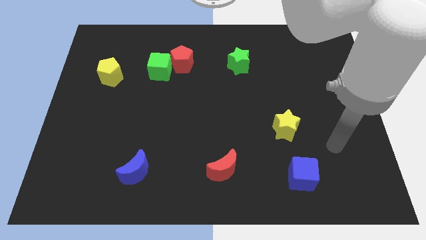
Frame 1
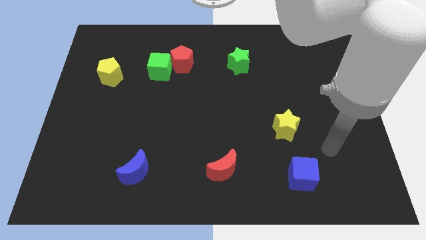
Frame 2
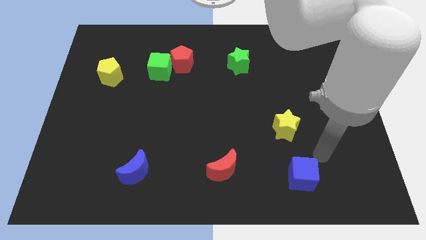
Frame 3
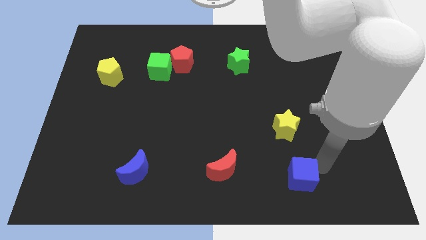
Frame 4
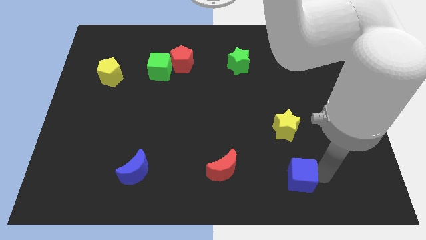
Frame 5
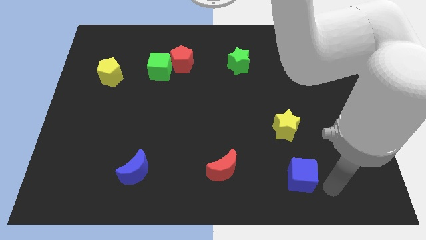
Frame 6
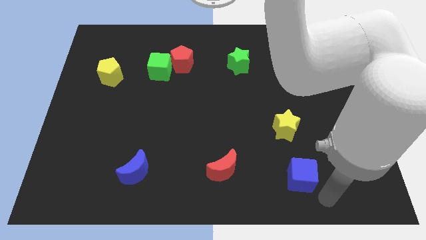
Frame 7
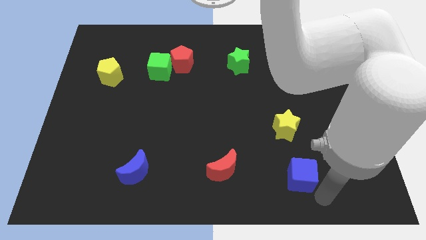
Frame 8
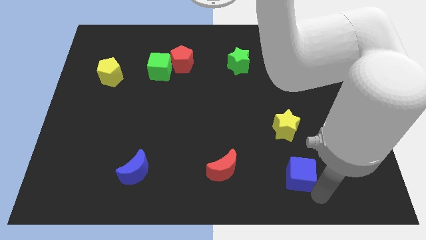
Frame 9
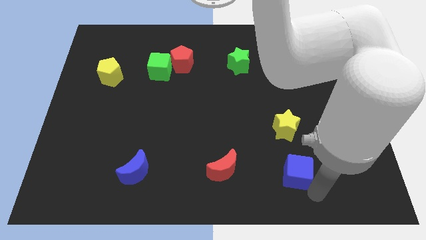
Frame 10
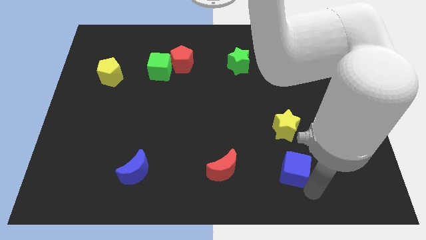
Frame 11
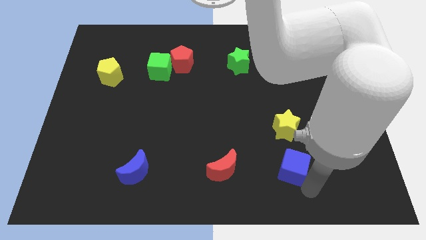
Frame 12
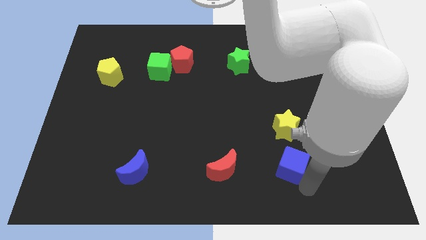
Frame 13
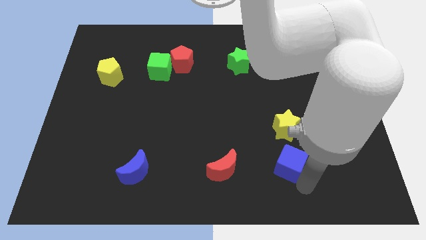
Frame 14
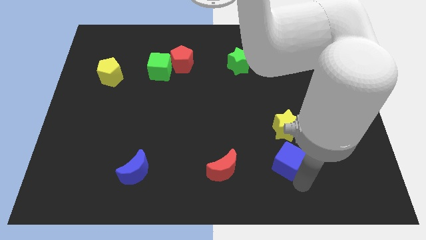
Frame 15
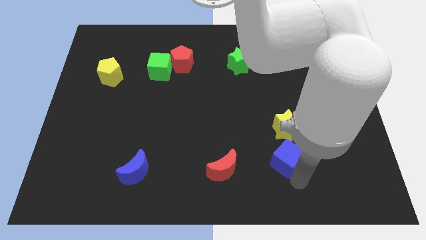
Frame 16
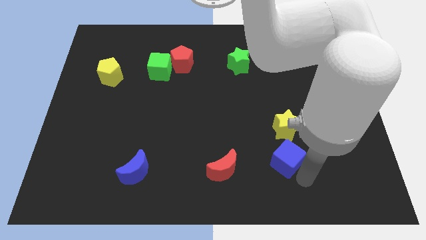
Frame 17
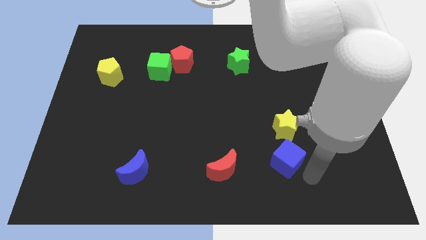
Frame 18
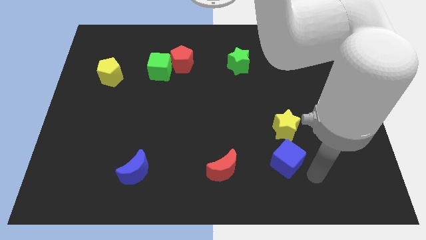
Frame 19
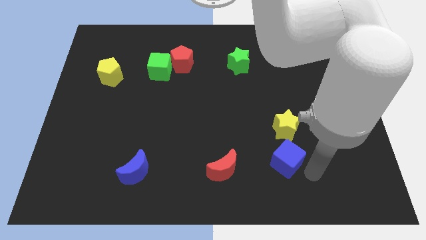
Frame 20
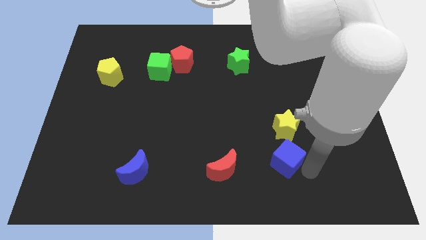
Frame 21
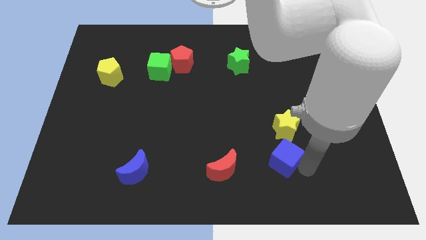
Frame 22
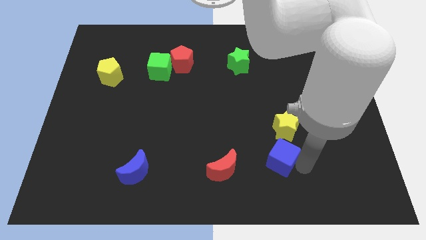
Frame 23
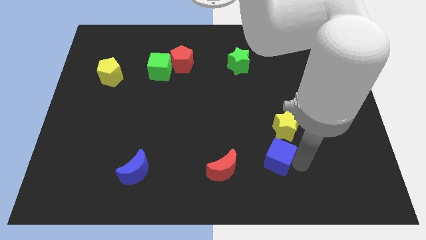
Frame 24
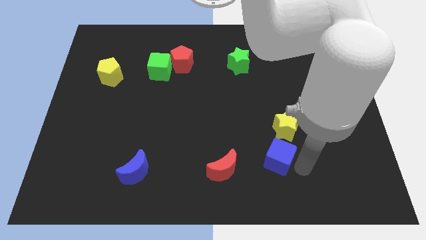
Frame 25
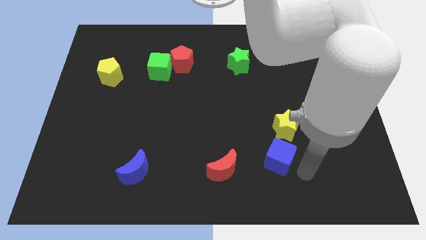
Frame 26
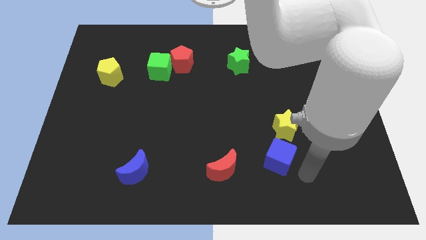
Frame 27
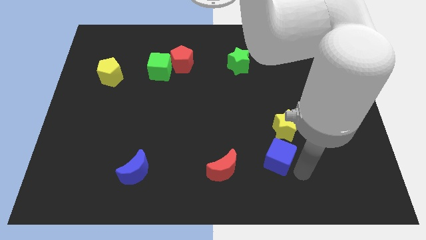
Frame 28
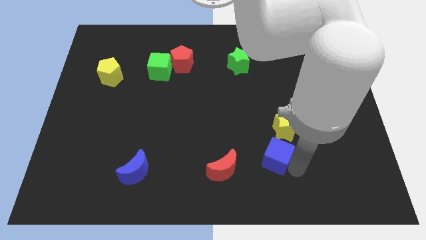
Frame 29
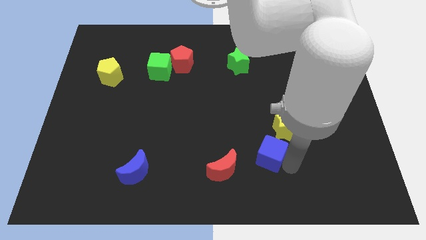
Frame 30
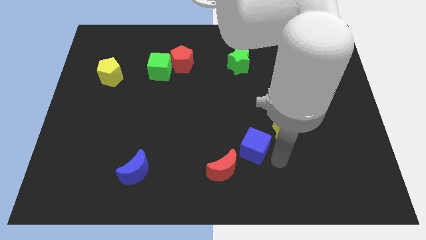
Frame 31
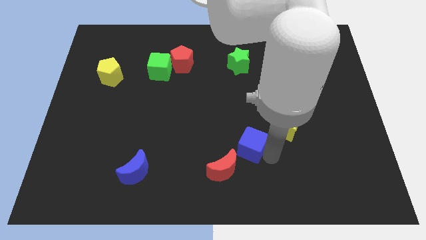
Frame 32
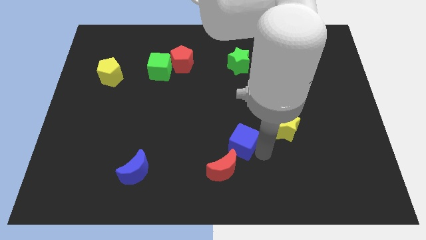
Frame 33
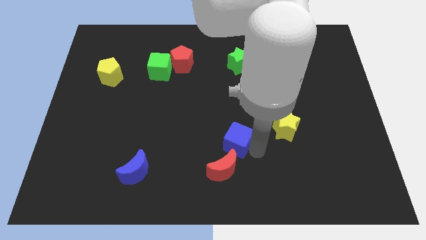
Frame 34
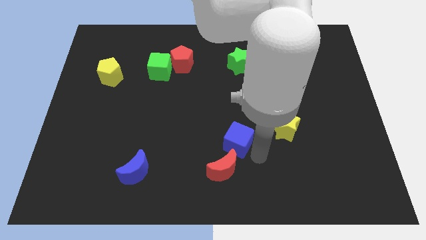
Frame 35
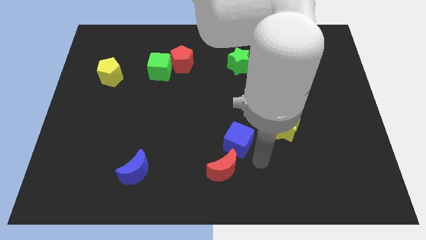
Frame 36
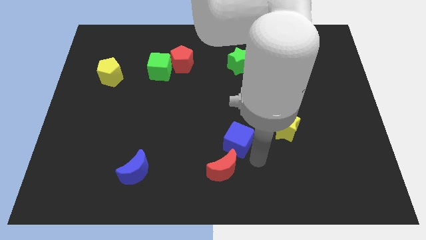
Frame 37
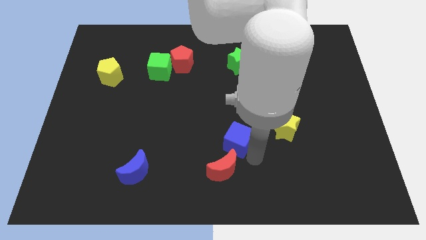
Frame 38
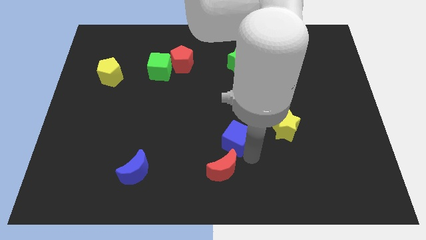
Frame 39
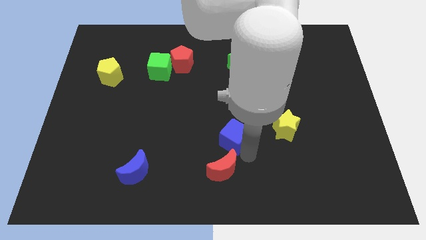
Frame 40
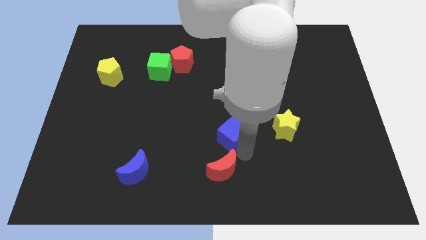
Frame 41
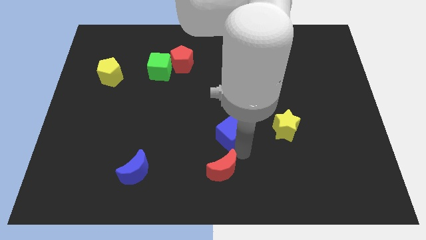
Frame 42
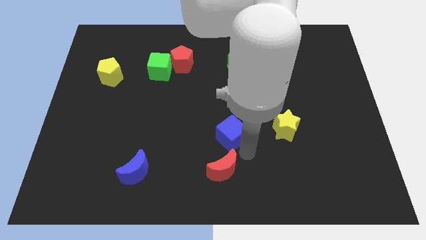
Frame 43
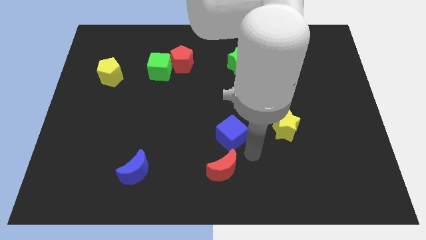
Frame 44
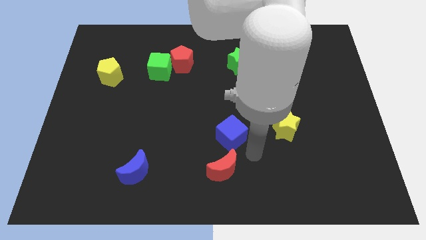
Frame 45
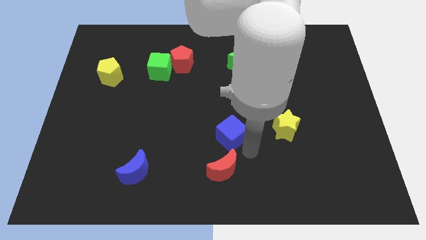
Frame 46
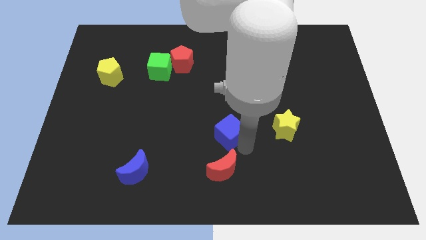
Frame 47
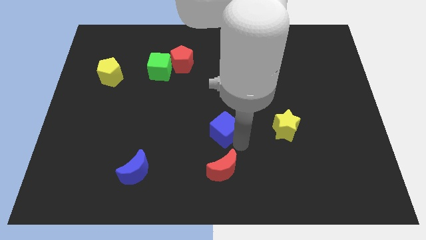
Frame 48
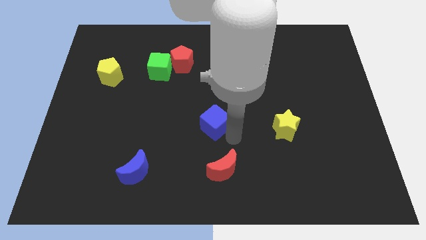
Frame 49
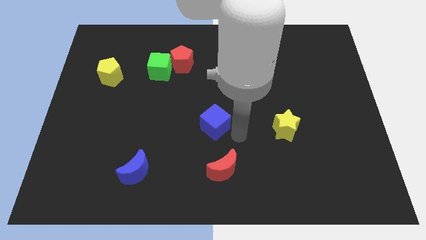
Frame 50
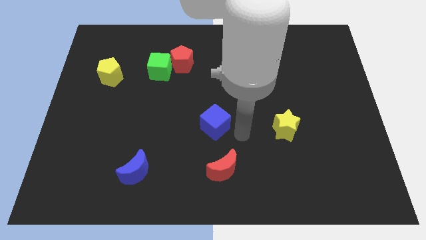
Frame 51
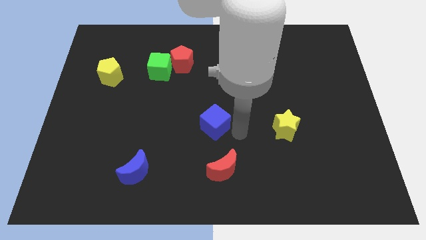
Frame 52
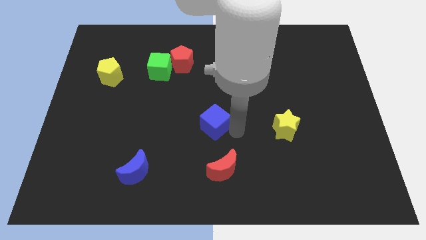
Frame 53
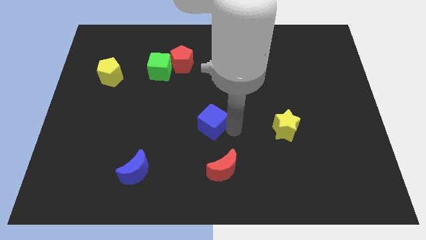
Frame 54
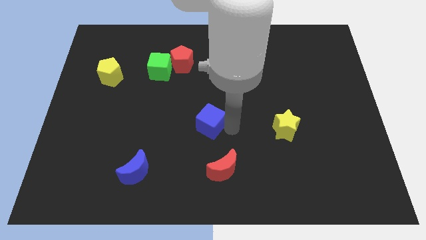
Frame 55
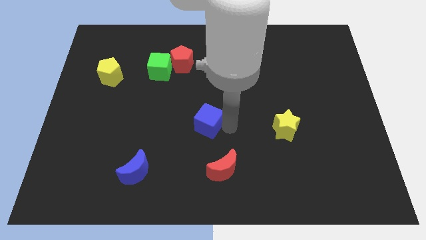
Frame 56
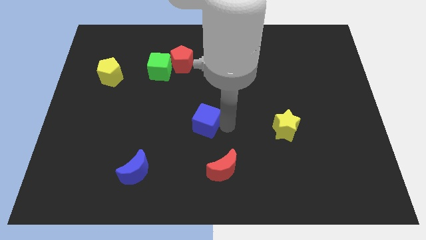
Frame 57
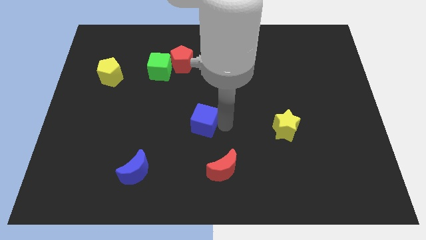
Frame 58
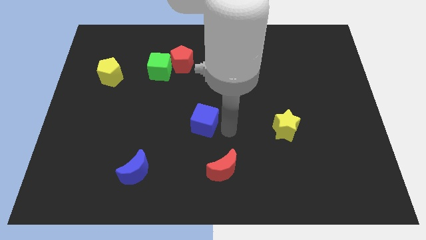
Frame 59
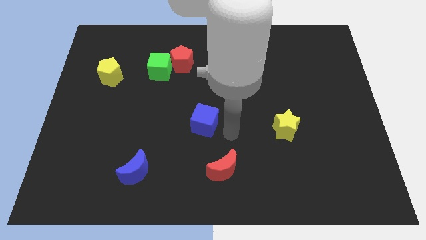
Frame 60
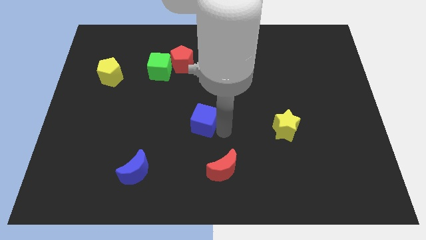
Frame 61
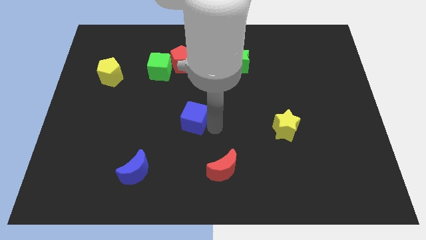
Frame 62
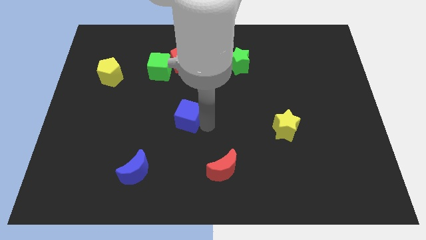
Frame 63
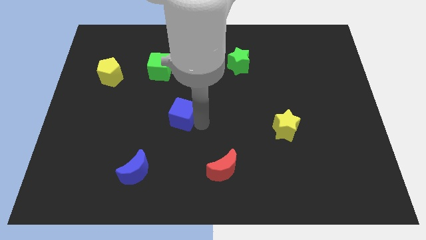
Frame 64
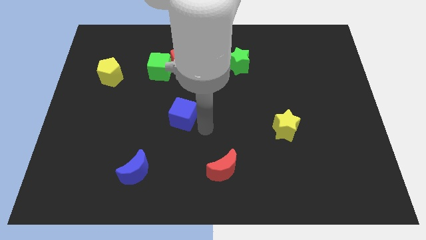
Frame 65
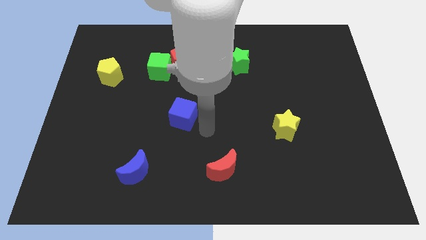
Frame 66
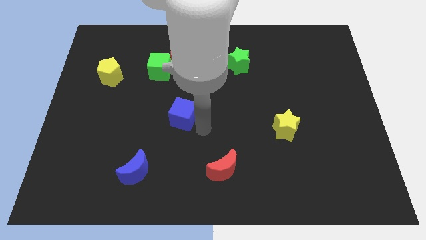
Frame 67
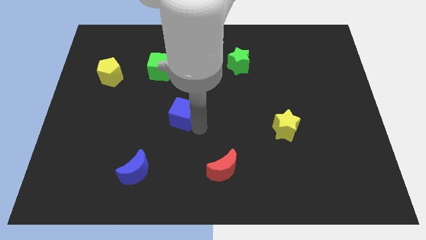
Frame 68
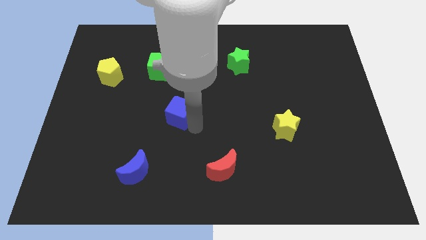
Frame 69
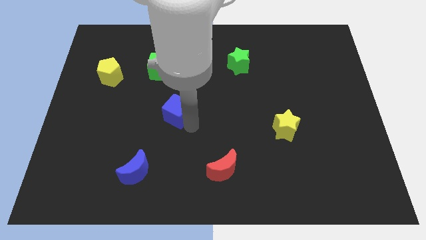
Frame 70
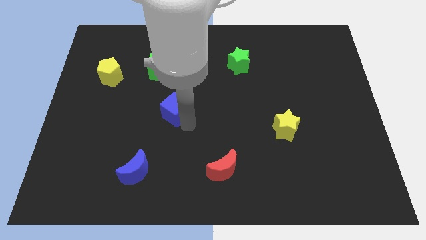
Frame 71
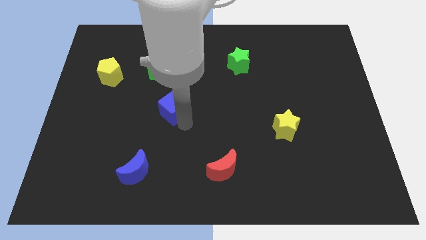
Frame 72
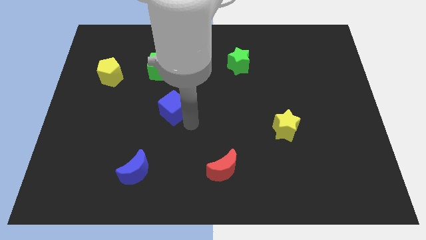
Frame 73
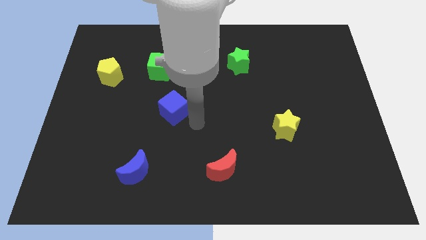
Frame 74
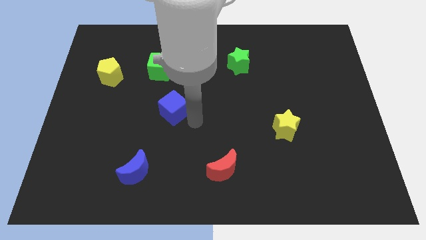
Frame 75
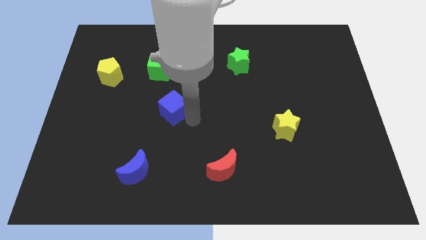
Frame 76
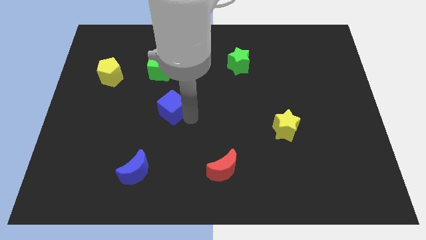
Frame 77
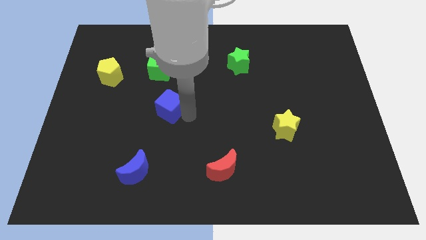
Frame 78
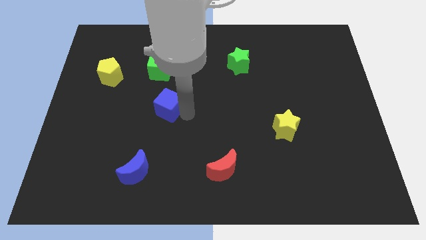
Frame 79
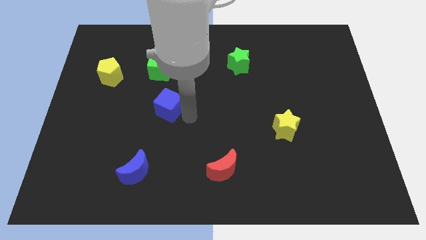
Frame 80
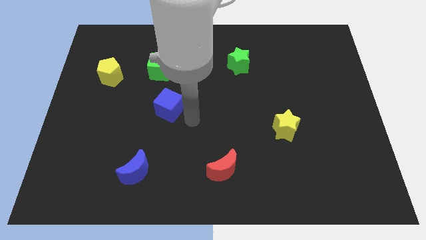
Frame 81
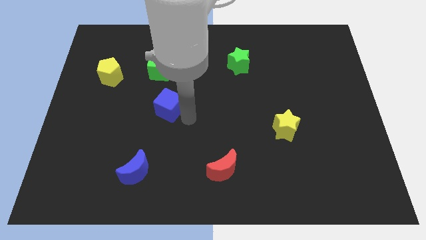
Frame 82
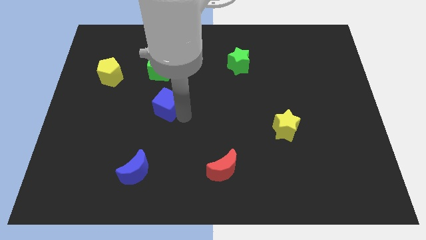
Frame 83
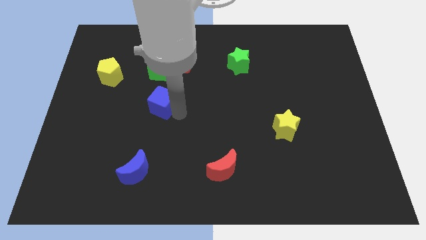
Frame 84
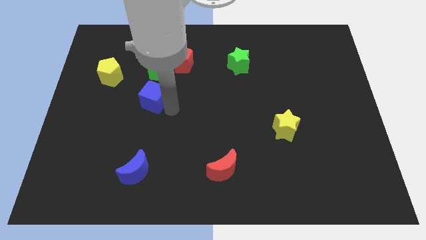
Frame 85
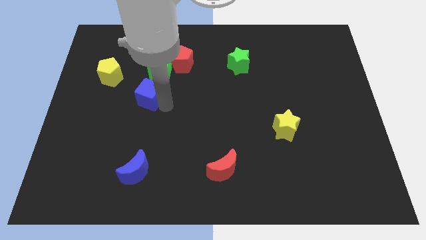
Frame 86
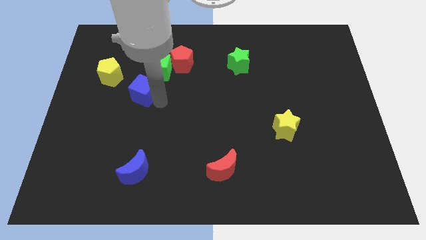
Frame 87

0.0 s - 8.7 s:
push the blue cube to the bottom right of the yellow pentagon
